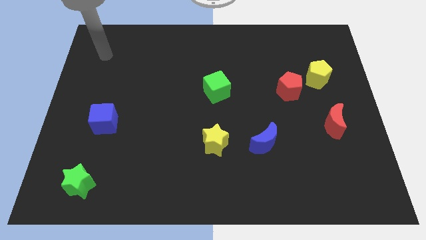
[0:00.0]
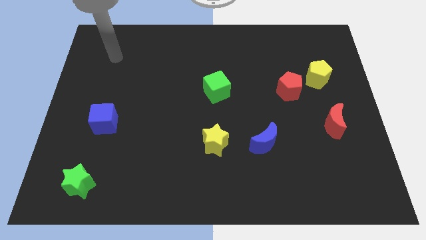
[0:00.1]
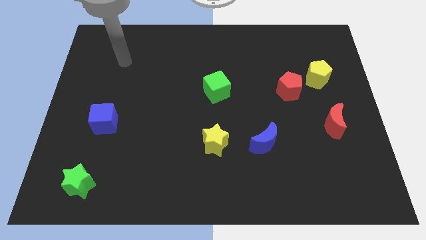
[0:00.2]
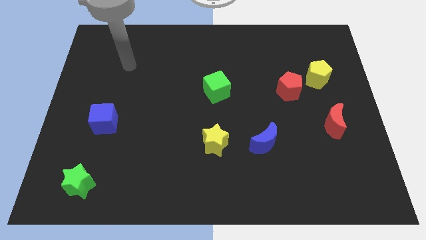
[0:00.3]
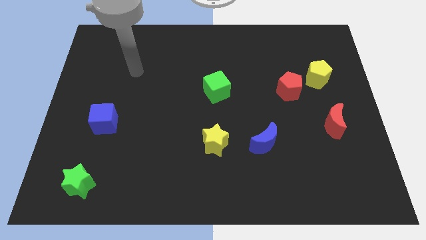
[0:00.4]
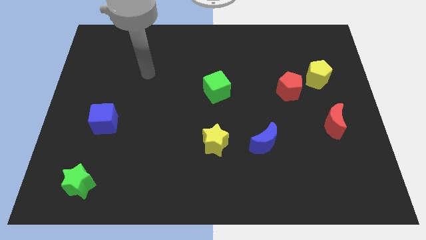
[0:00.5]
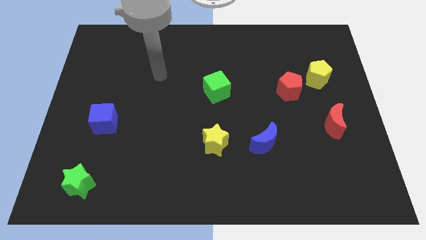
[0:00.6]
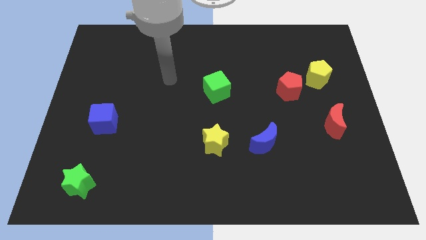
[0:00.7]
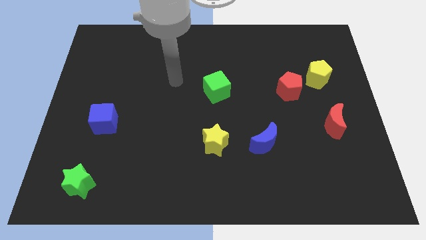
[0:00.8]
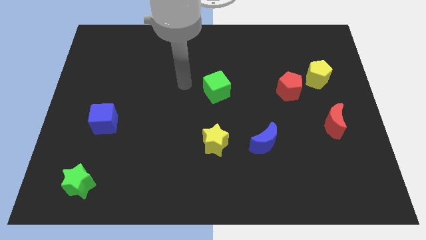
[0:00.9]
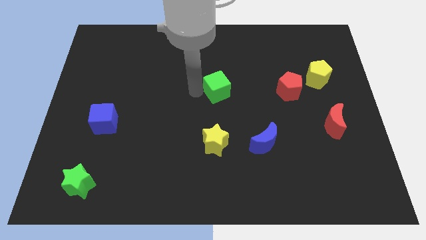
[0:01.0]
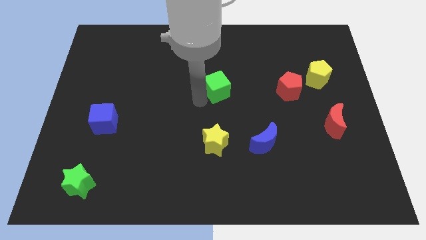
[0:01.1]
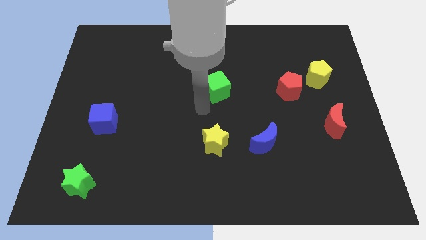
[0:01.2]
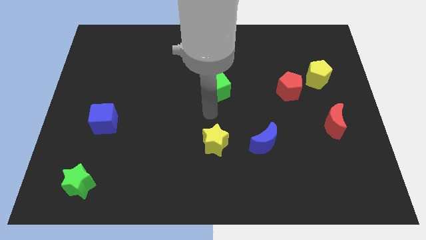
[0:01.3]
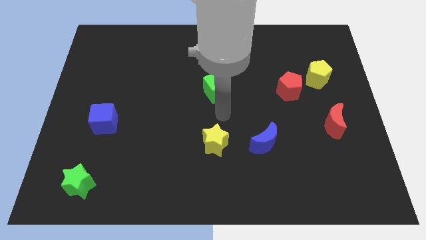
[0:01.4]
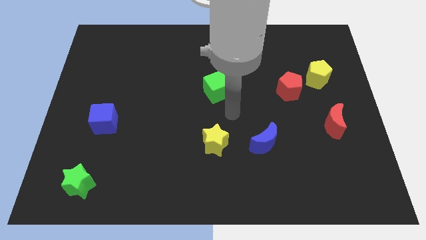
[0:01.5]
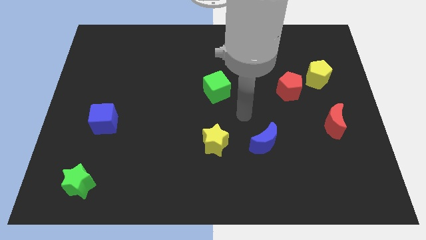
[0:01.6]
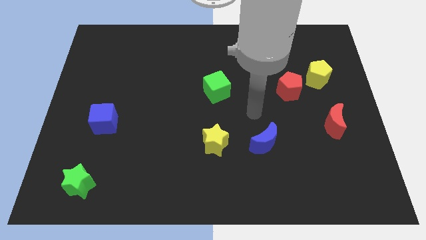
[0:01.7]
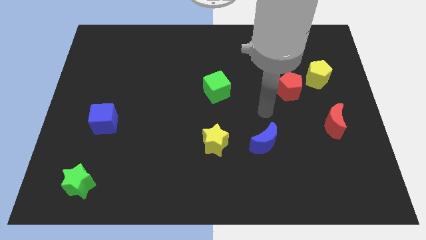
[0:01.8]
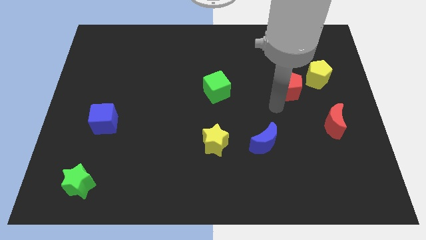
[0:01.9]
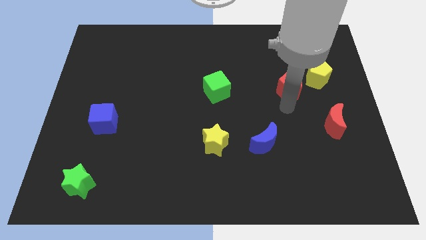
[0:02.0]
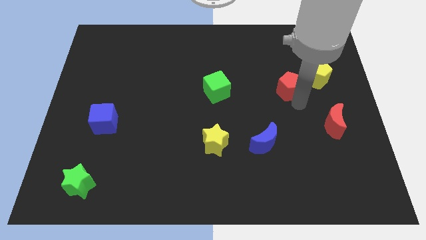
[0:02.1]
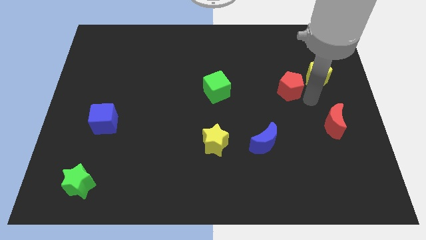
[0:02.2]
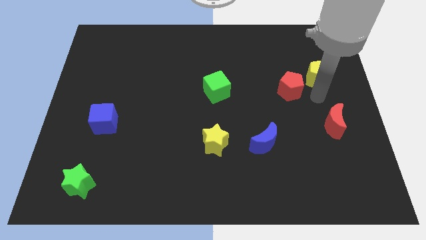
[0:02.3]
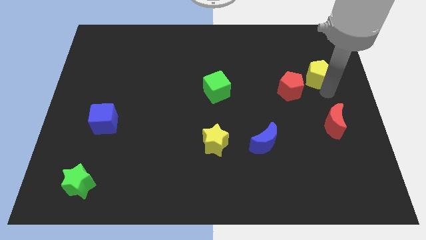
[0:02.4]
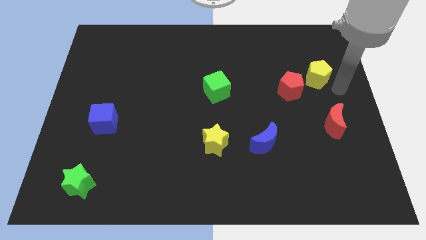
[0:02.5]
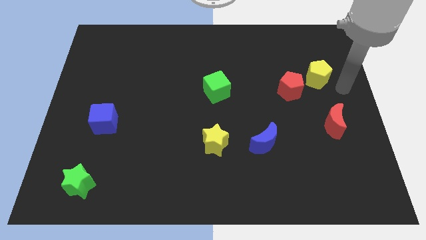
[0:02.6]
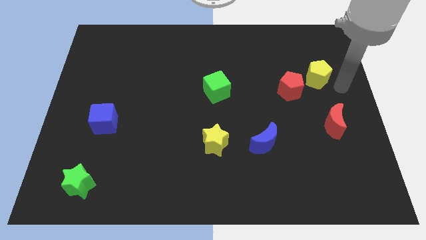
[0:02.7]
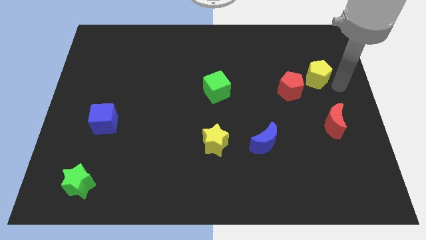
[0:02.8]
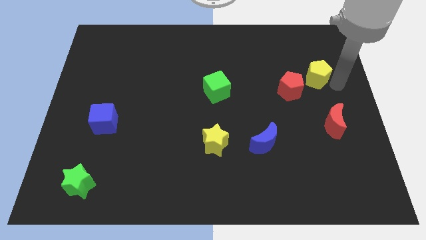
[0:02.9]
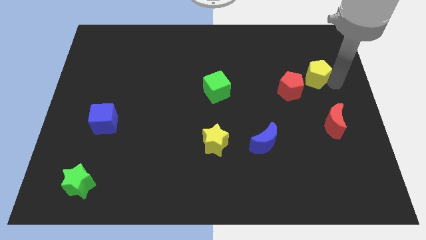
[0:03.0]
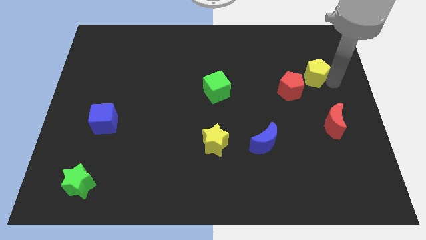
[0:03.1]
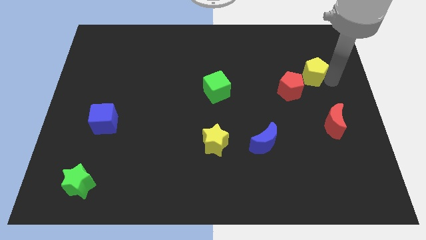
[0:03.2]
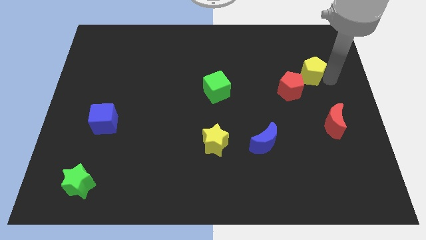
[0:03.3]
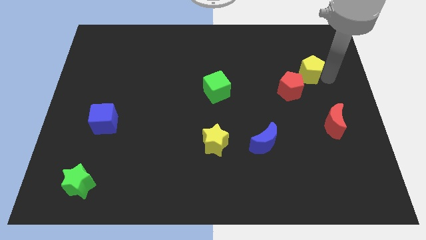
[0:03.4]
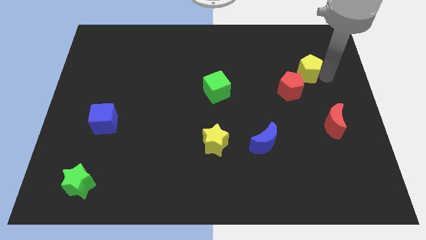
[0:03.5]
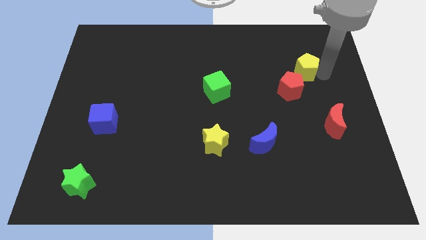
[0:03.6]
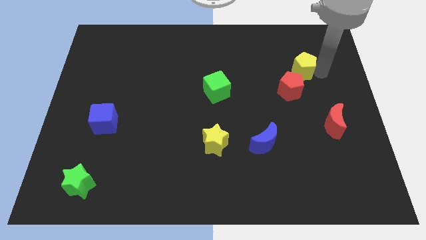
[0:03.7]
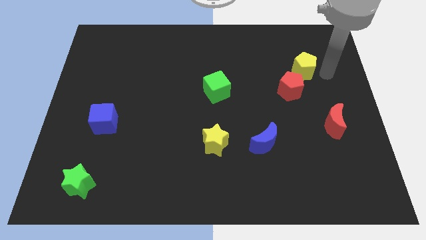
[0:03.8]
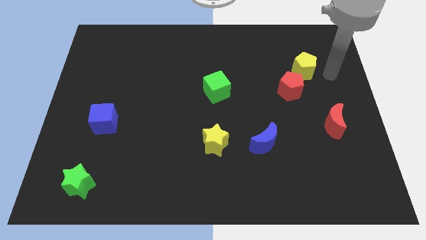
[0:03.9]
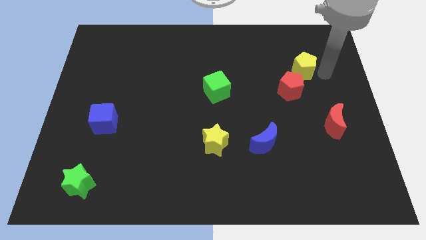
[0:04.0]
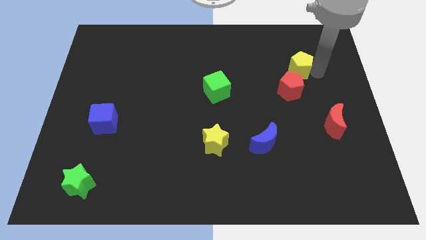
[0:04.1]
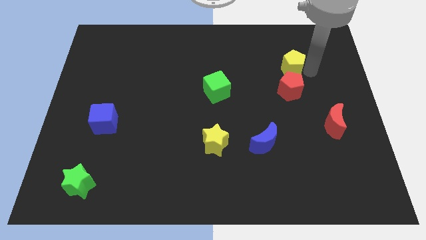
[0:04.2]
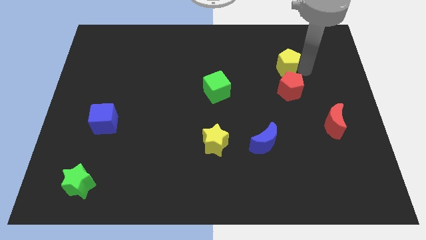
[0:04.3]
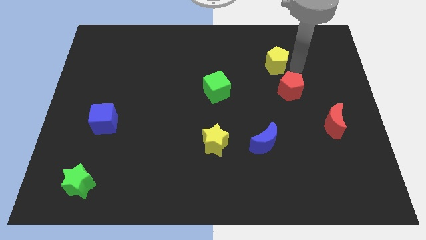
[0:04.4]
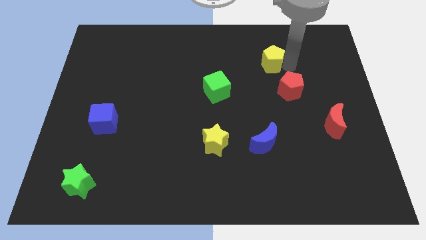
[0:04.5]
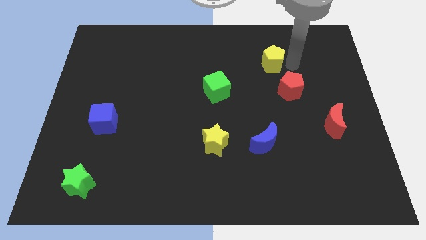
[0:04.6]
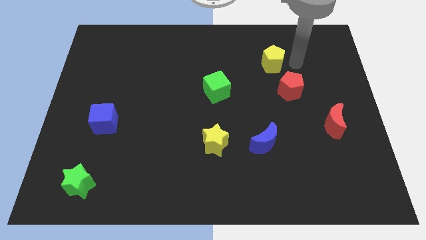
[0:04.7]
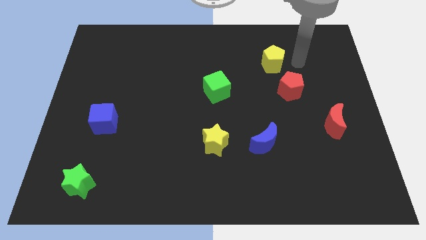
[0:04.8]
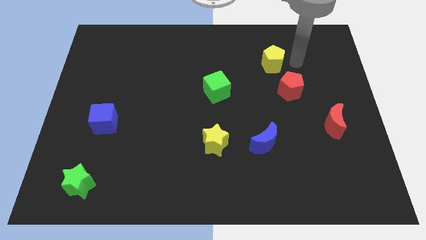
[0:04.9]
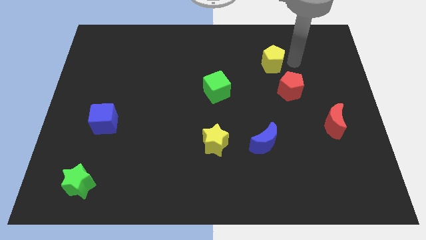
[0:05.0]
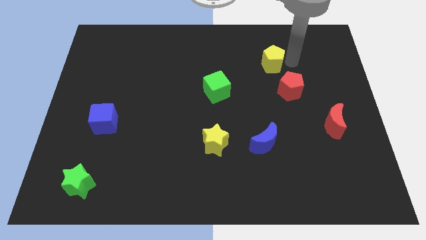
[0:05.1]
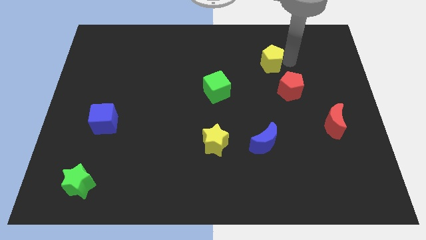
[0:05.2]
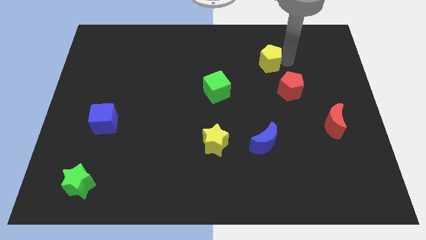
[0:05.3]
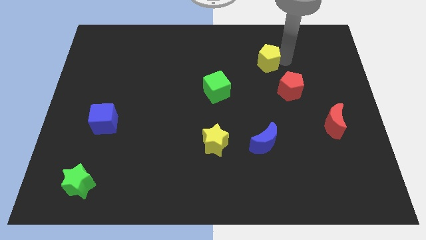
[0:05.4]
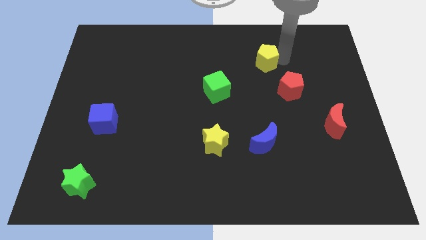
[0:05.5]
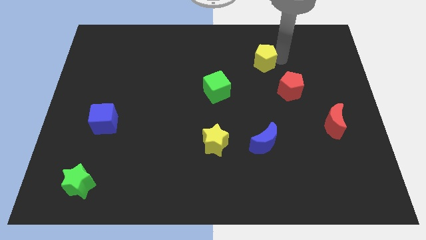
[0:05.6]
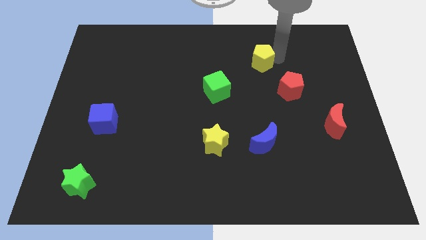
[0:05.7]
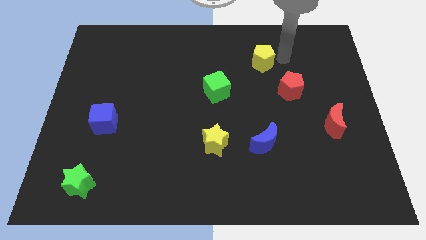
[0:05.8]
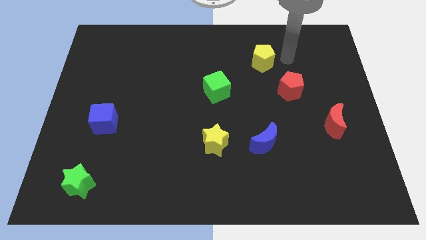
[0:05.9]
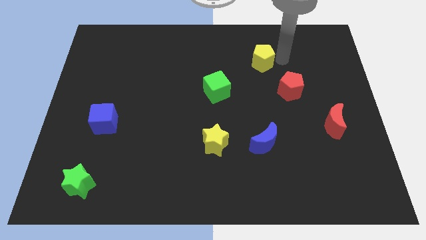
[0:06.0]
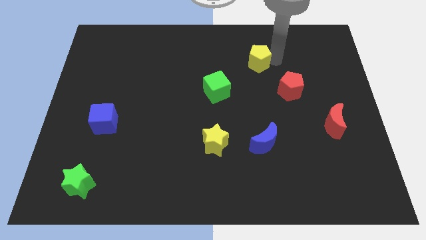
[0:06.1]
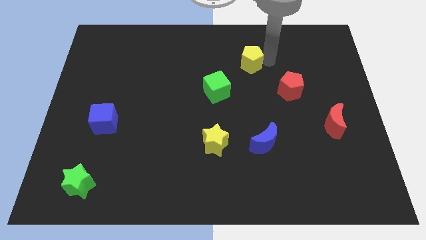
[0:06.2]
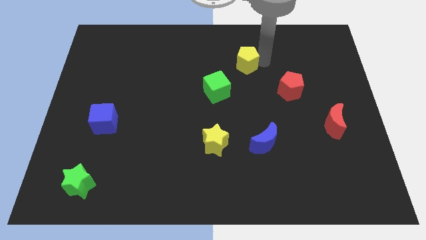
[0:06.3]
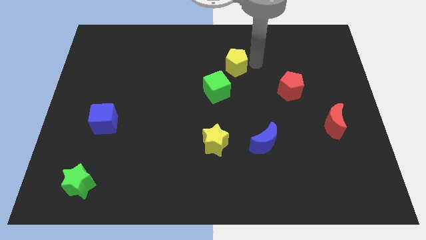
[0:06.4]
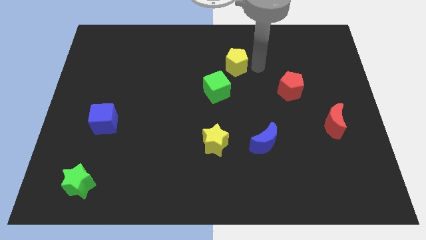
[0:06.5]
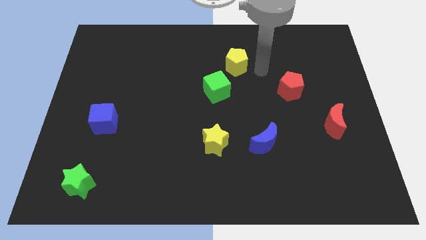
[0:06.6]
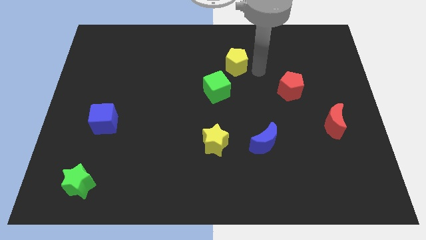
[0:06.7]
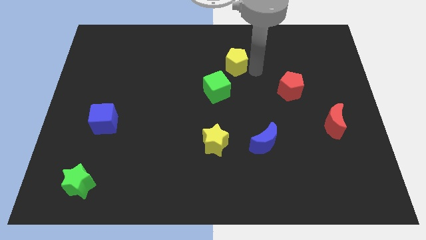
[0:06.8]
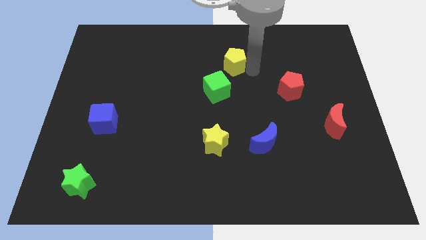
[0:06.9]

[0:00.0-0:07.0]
move the yellow pentagon to the top of the green cube
